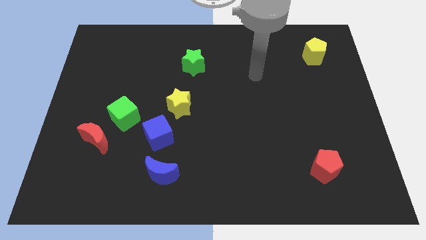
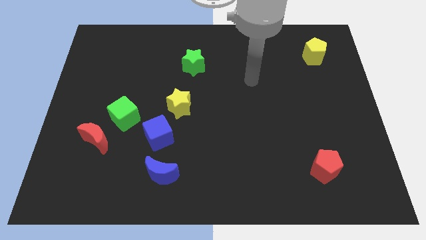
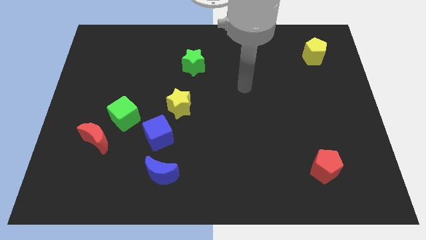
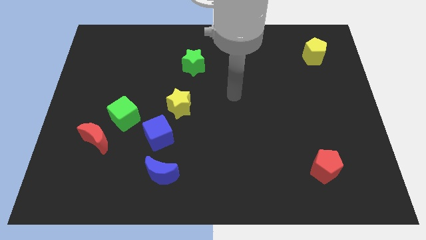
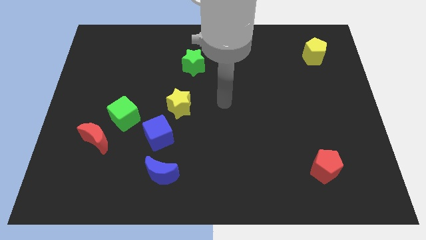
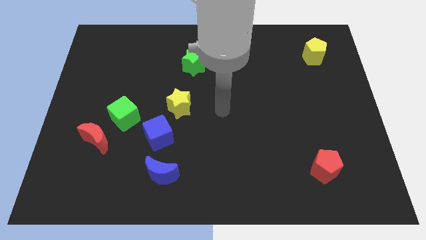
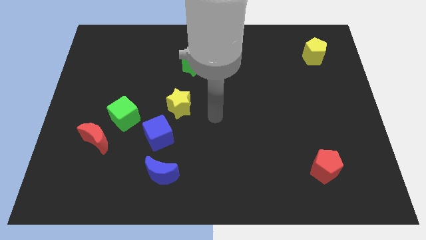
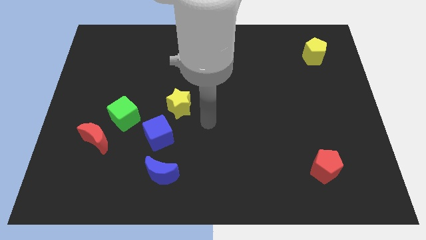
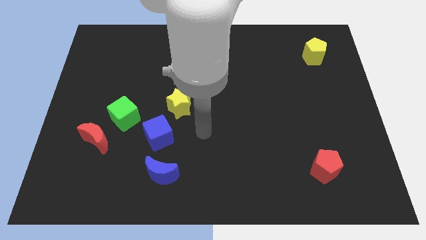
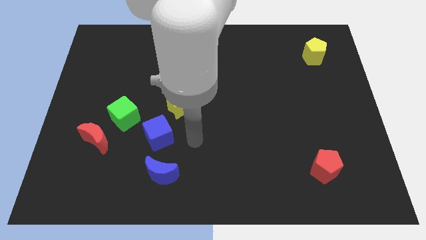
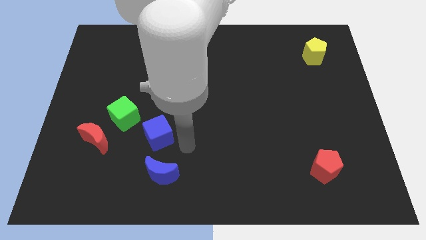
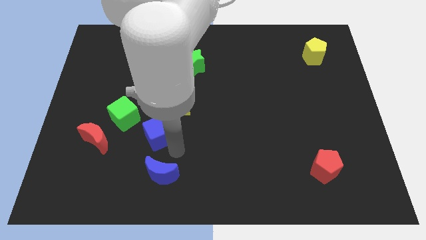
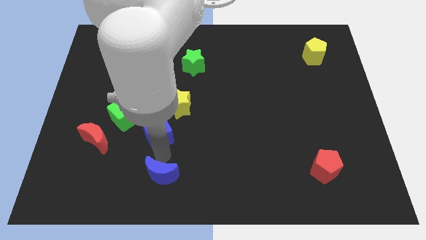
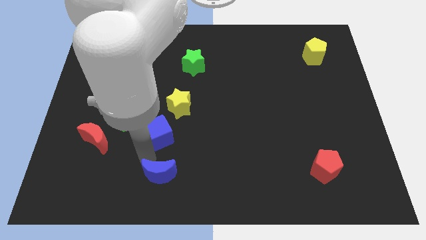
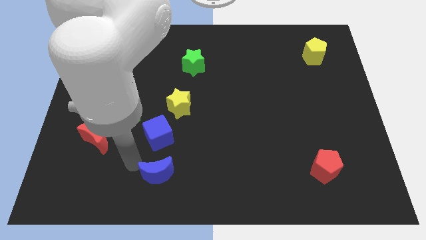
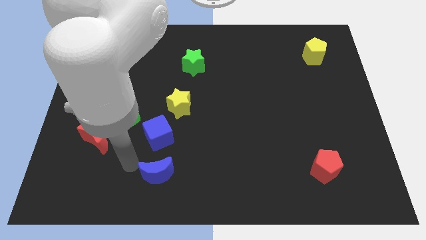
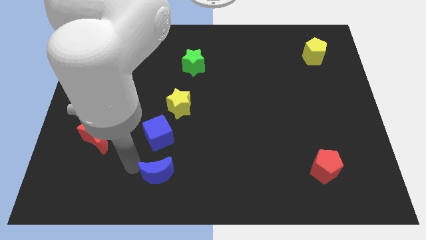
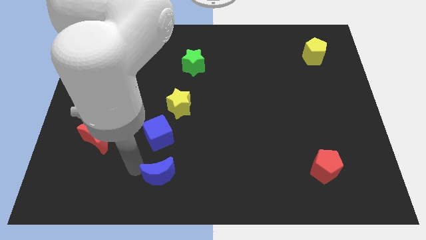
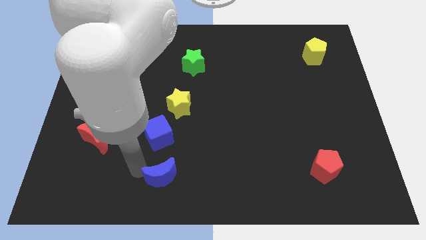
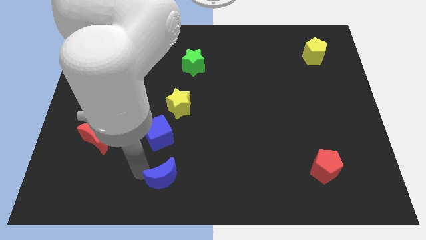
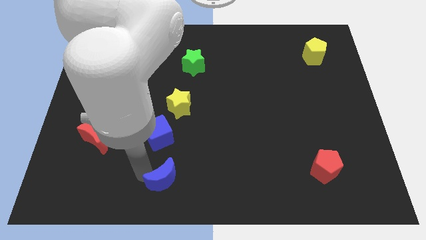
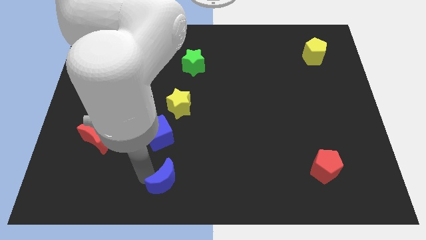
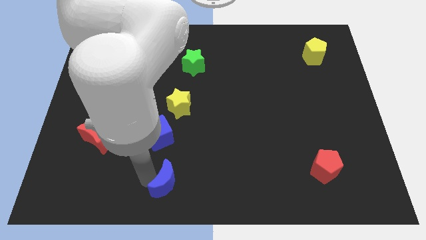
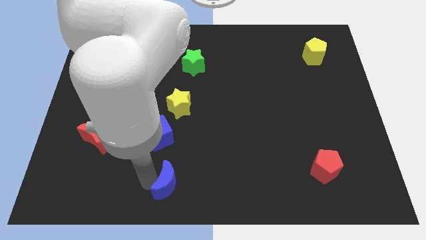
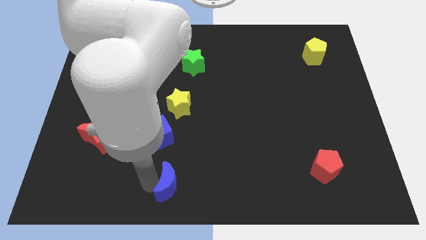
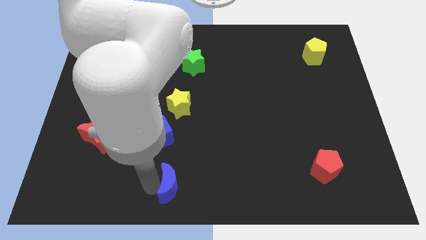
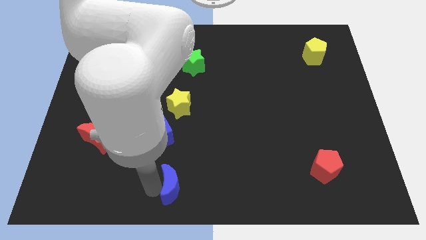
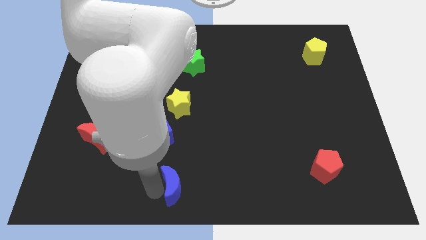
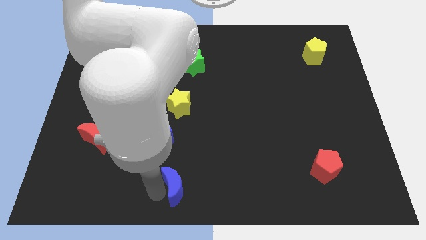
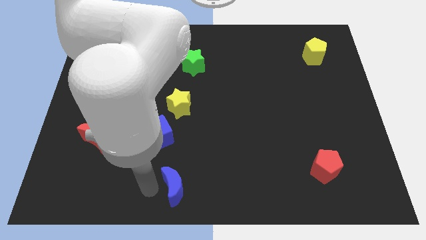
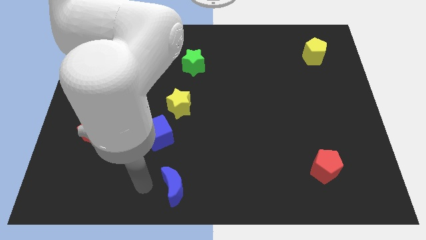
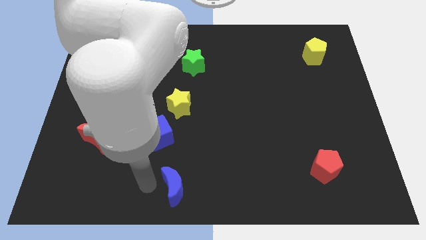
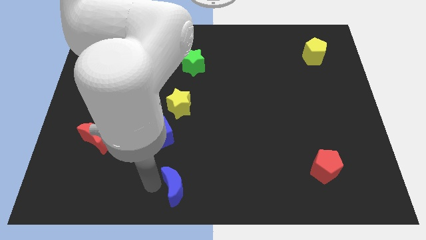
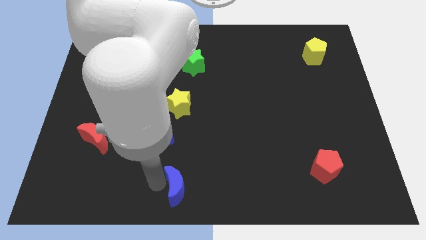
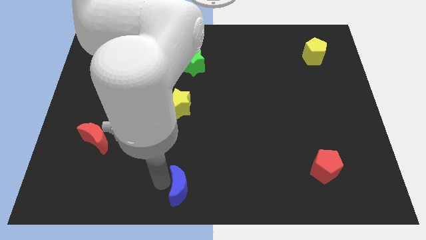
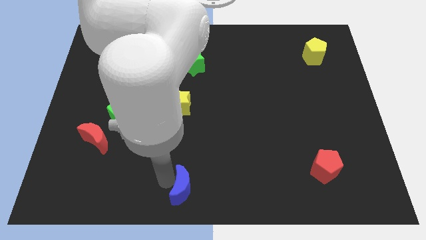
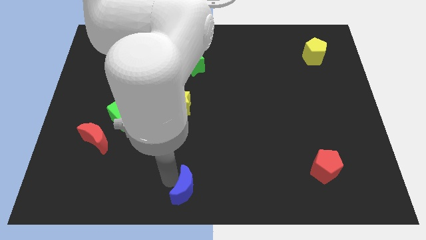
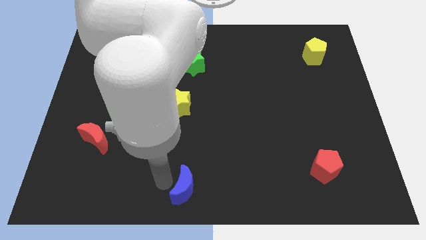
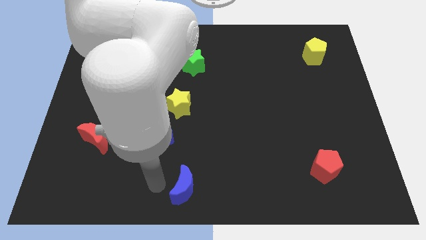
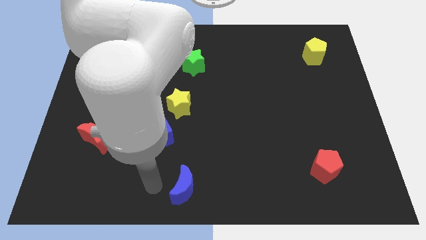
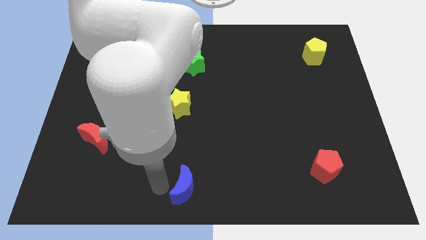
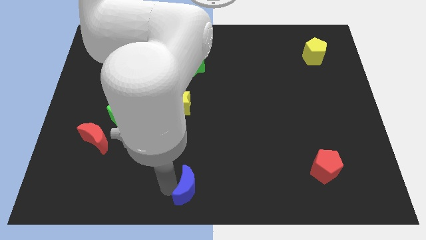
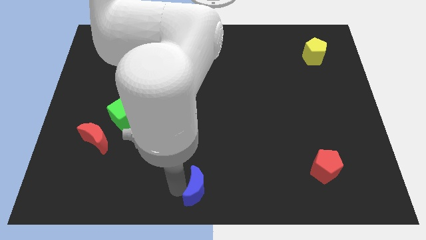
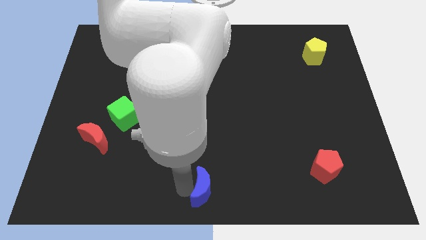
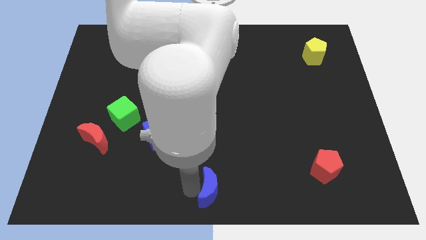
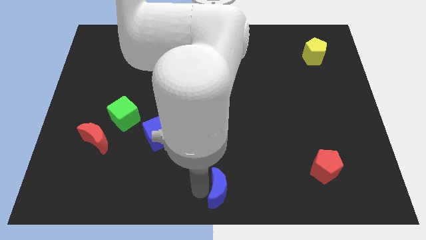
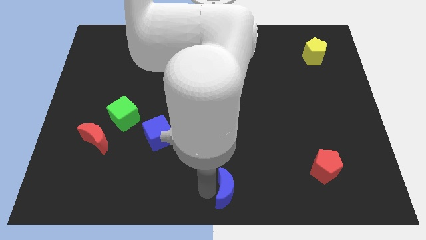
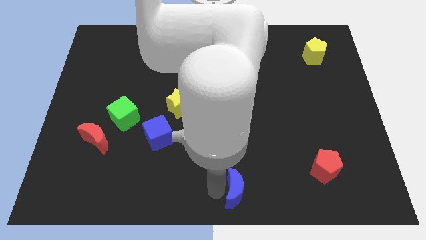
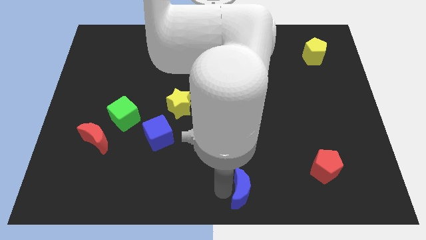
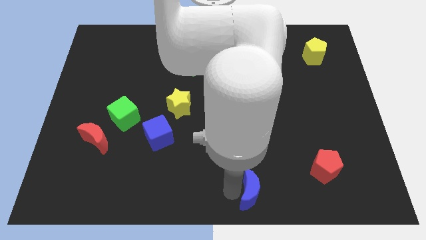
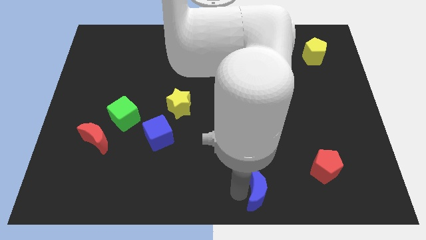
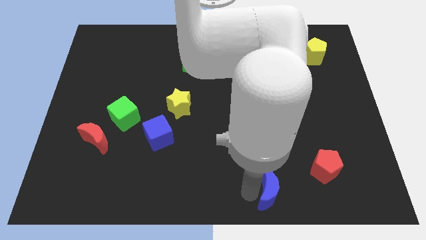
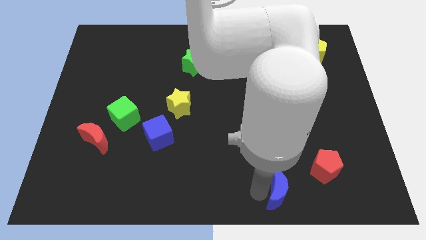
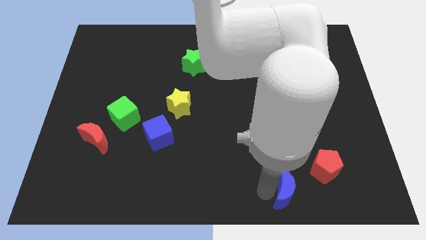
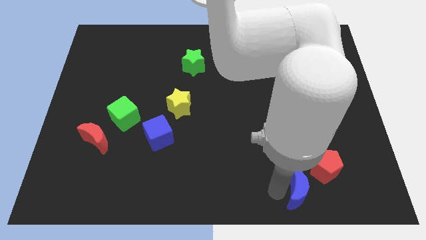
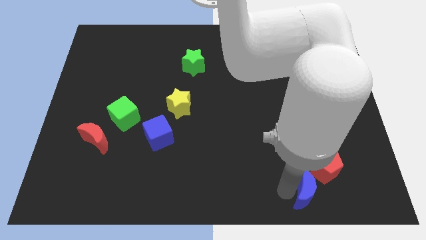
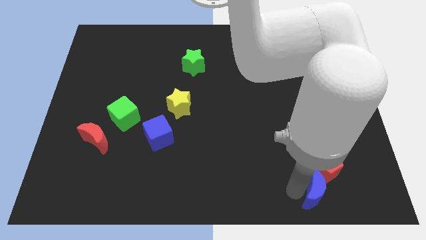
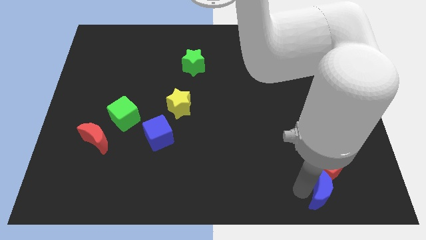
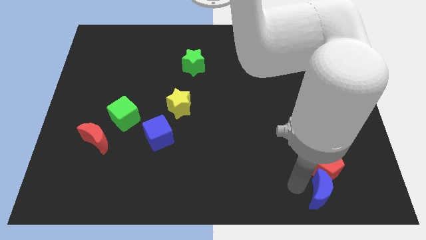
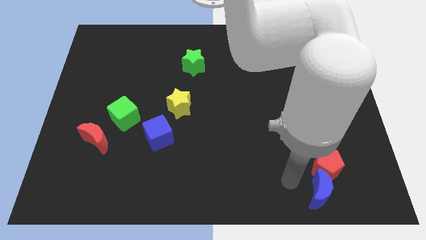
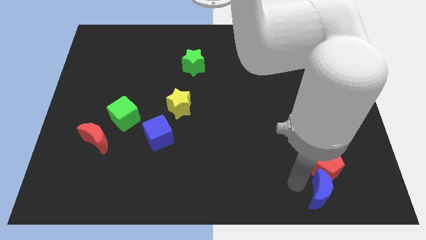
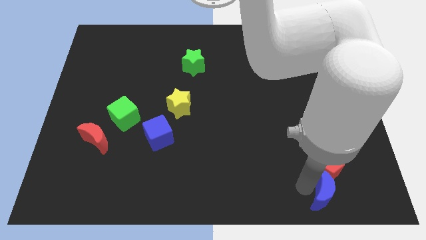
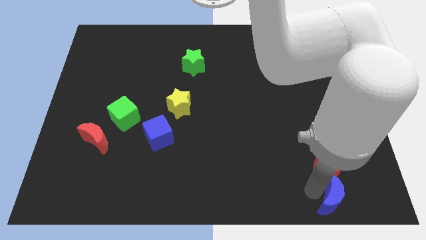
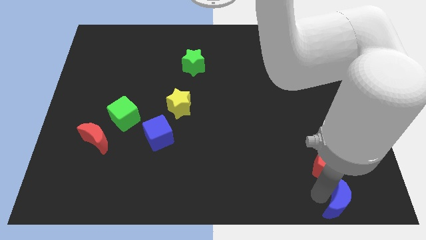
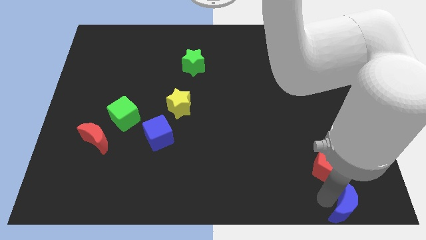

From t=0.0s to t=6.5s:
push the blue moon to the bottom right corner

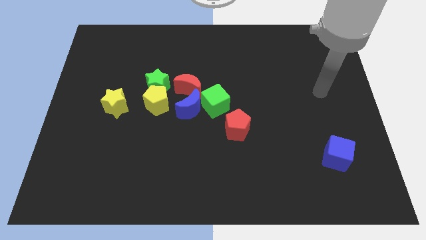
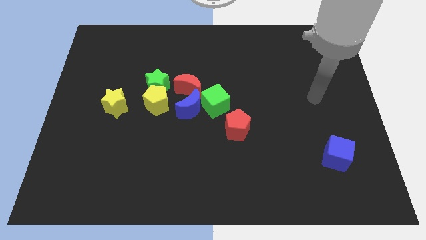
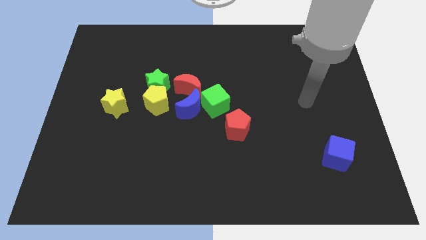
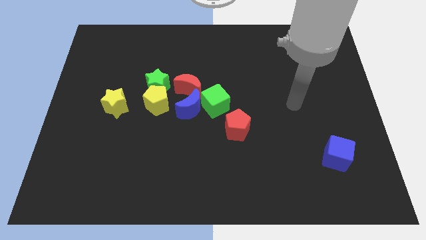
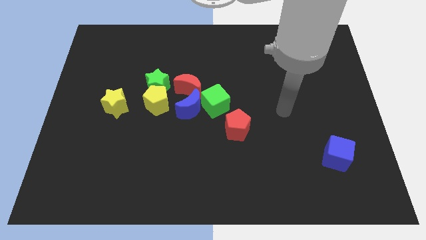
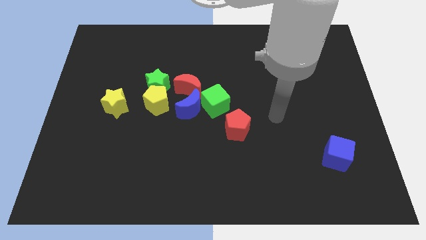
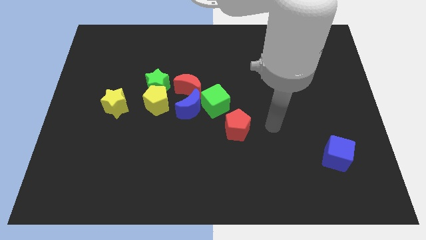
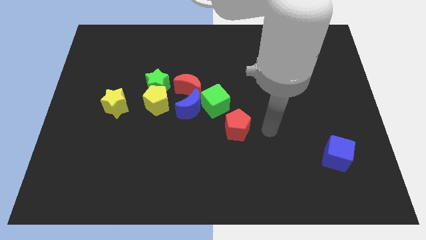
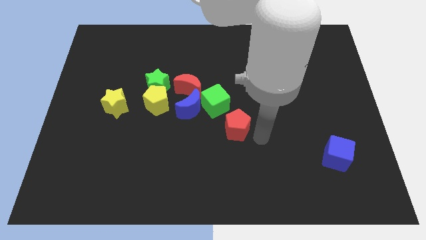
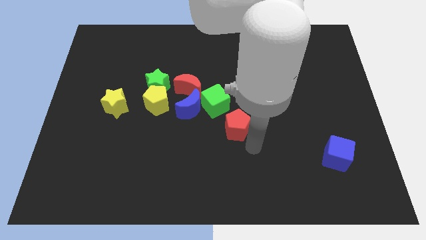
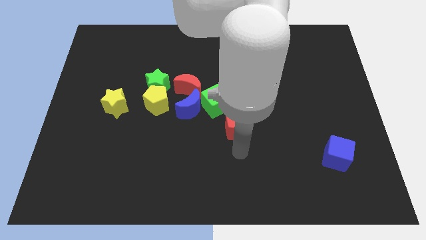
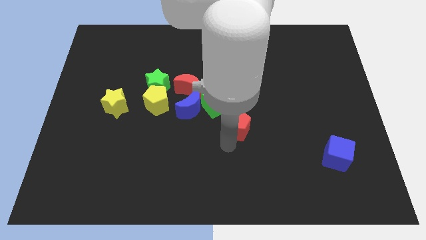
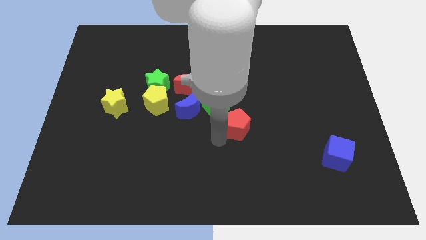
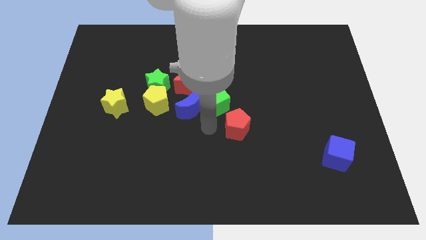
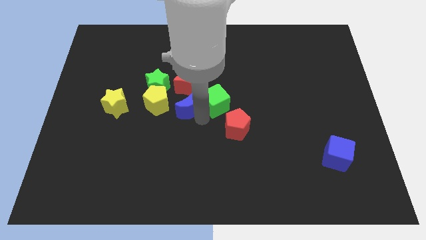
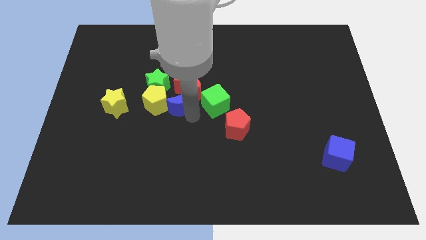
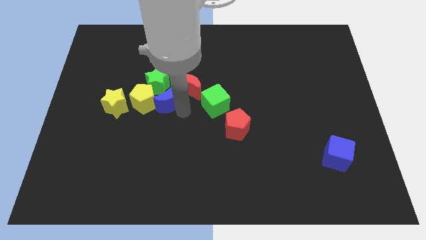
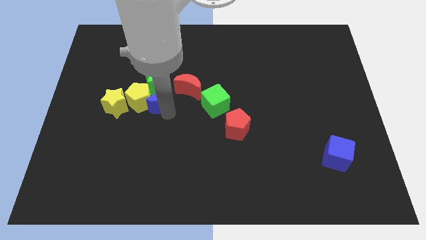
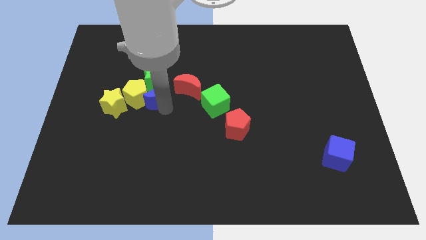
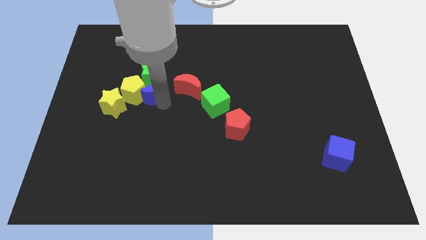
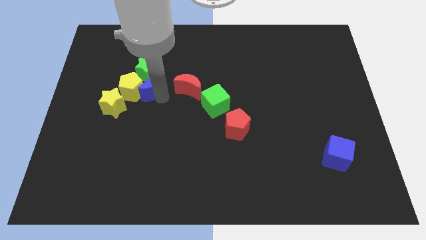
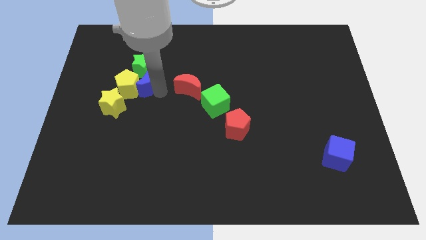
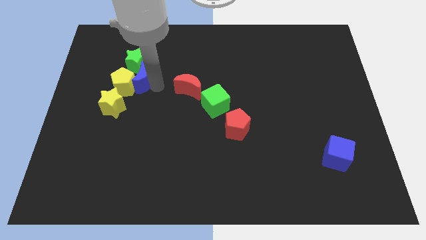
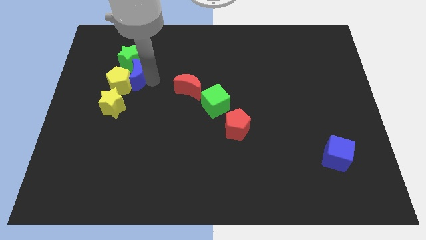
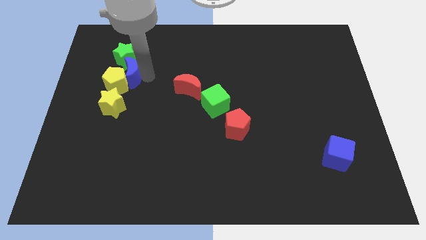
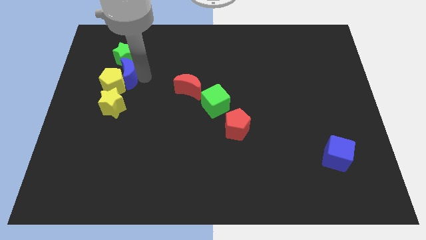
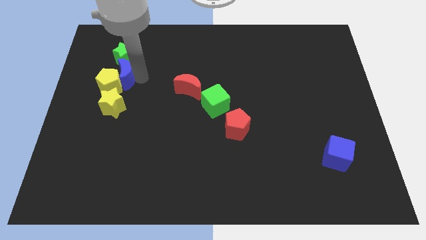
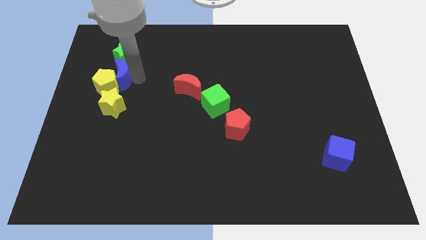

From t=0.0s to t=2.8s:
slide the yellow pentagon to the left side of the board
